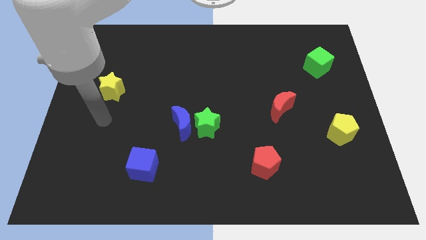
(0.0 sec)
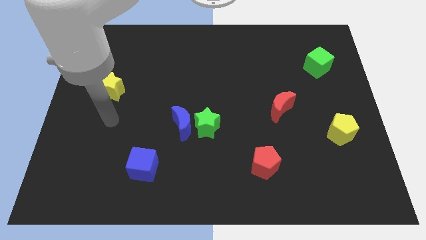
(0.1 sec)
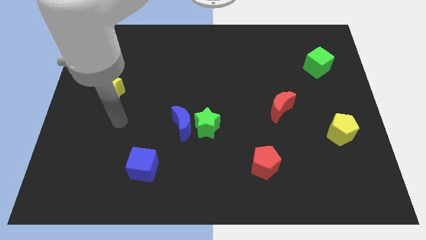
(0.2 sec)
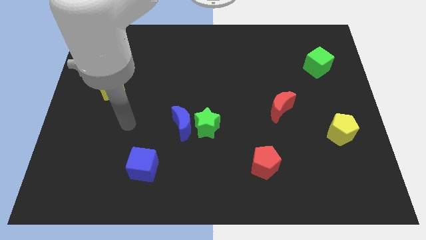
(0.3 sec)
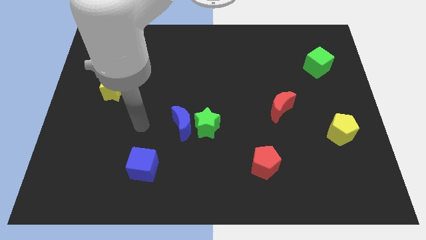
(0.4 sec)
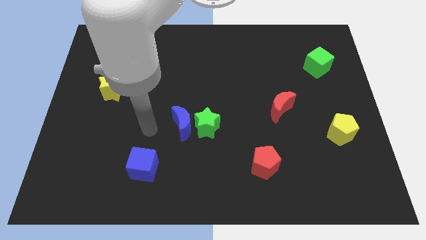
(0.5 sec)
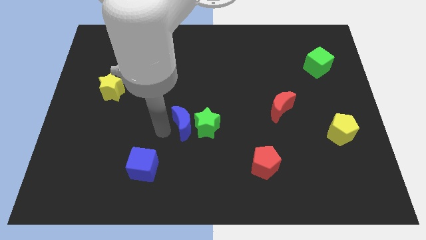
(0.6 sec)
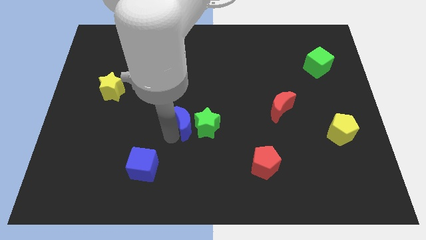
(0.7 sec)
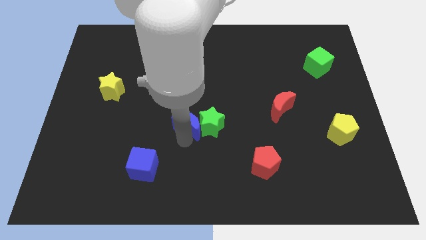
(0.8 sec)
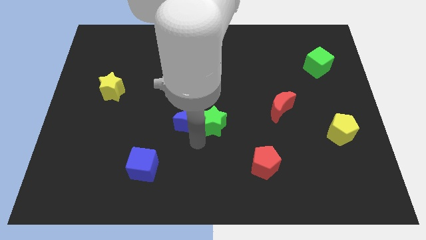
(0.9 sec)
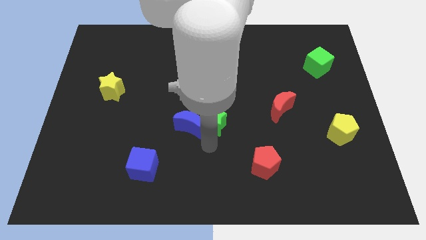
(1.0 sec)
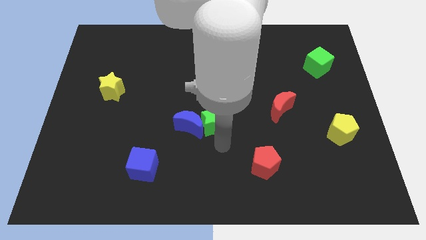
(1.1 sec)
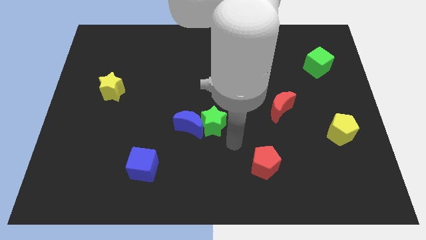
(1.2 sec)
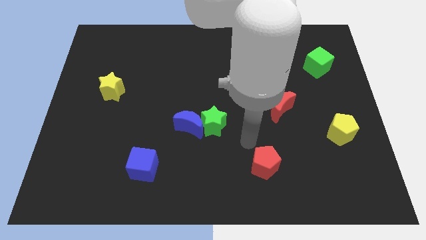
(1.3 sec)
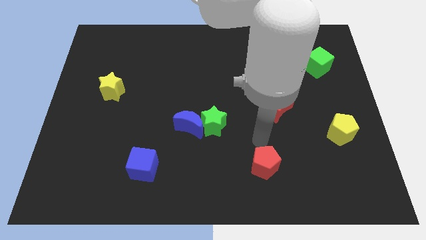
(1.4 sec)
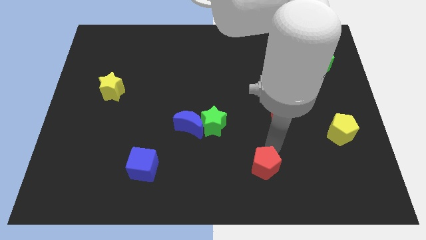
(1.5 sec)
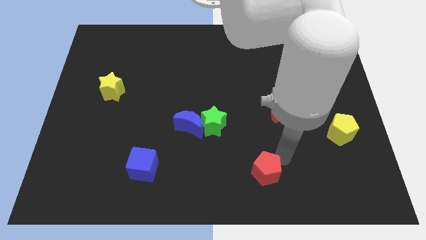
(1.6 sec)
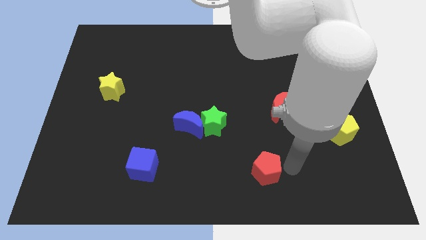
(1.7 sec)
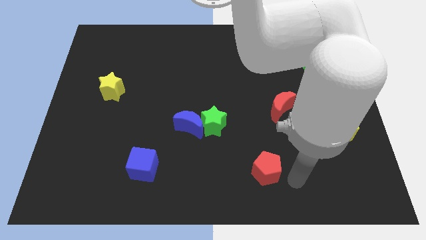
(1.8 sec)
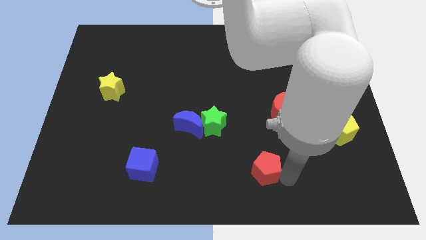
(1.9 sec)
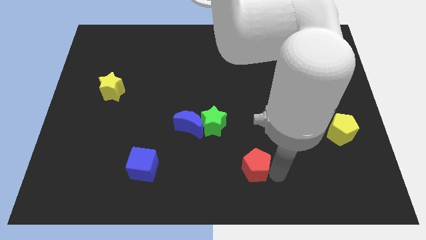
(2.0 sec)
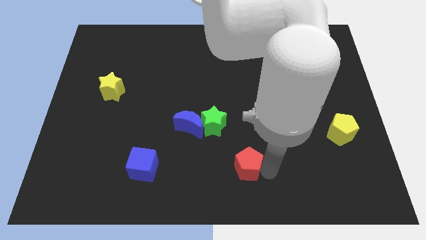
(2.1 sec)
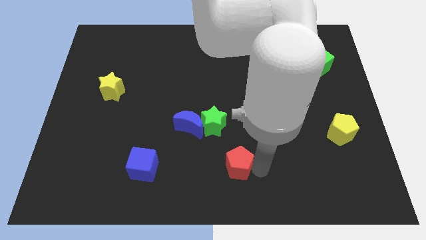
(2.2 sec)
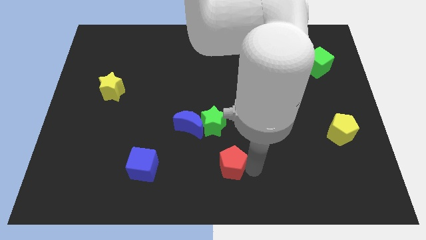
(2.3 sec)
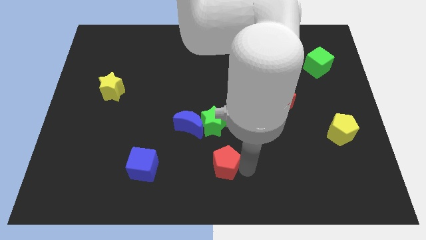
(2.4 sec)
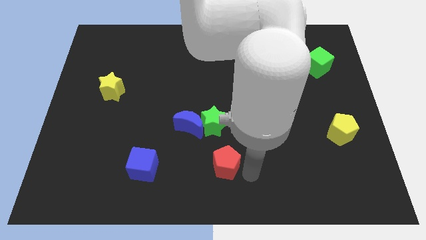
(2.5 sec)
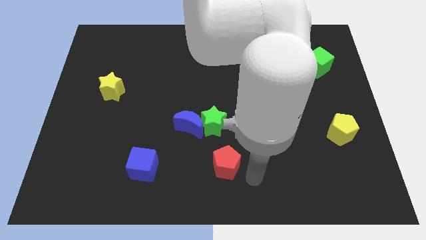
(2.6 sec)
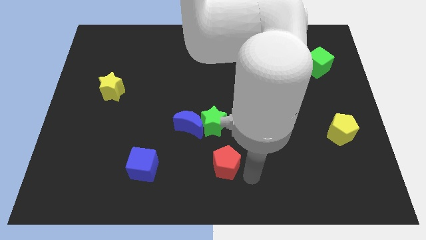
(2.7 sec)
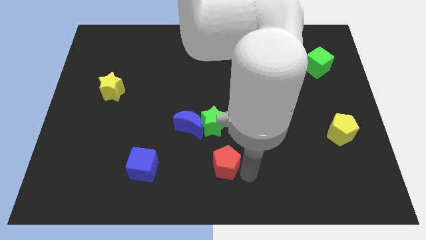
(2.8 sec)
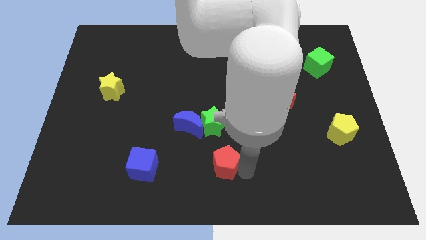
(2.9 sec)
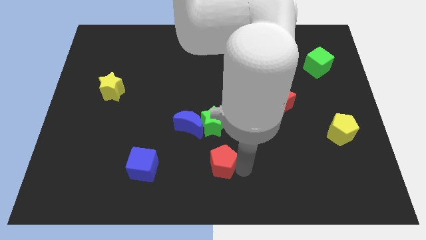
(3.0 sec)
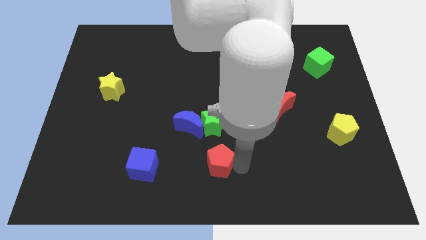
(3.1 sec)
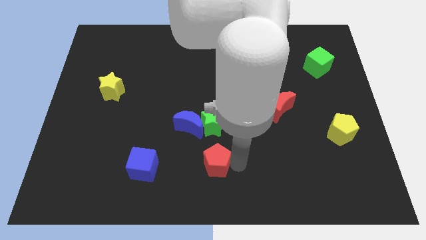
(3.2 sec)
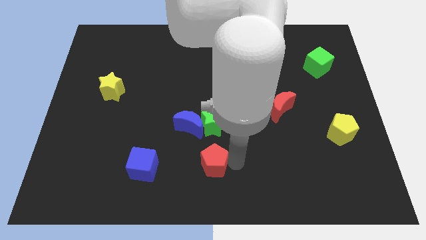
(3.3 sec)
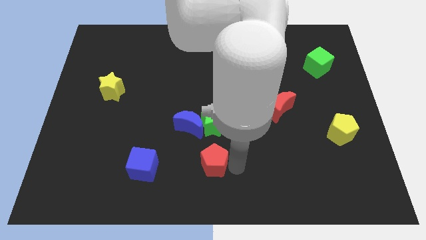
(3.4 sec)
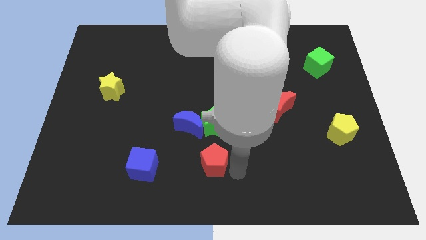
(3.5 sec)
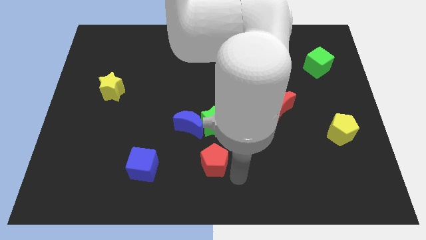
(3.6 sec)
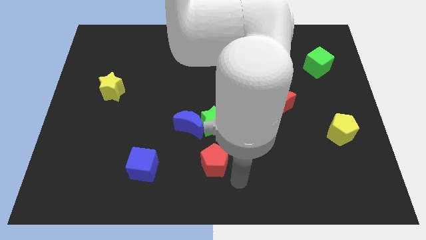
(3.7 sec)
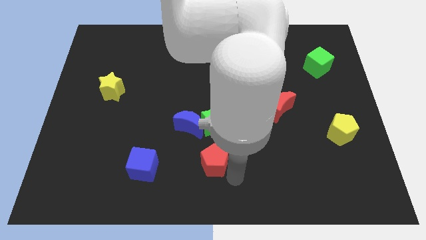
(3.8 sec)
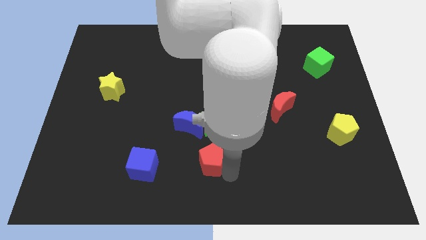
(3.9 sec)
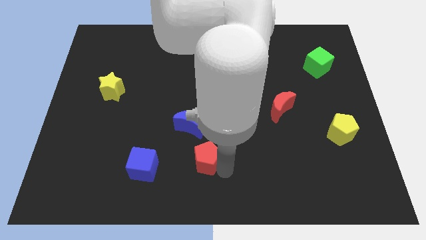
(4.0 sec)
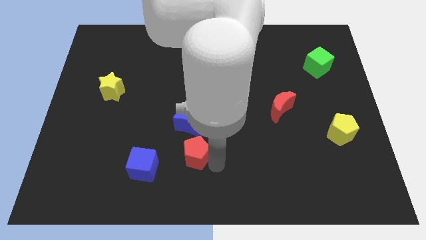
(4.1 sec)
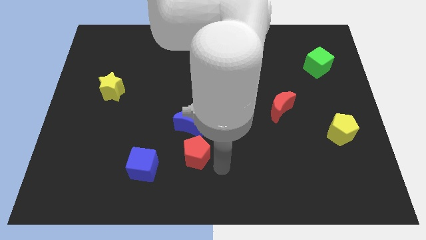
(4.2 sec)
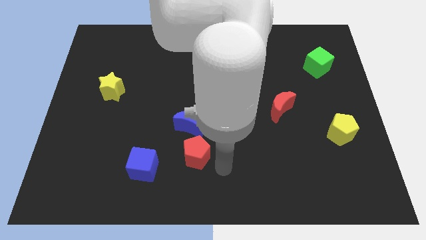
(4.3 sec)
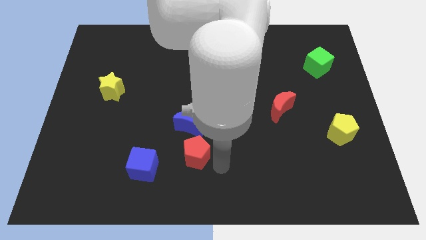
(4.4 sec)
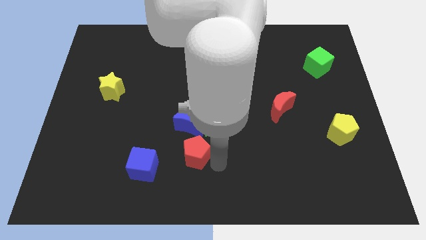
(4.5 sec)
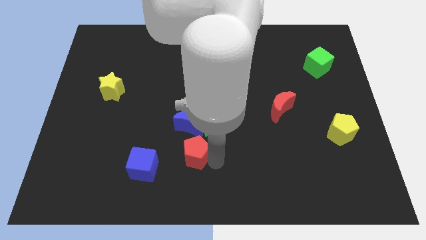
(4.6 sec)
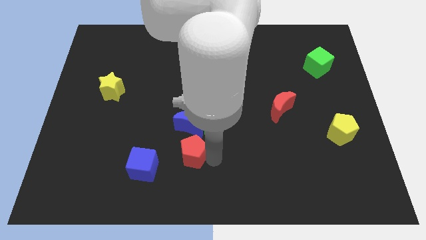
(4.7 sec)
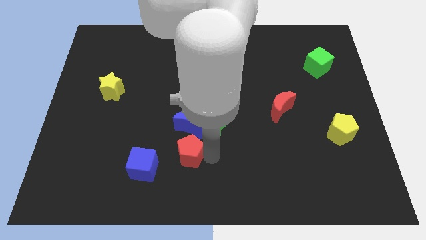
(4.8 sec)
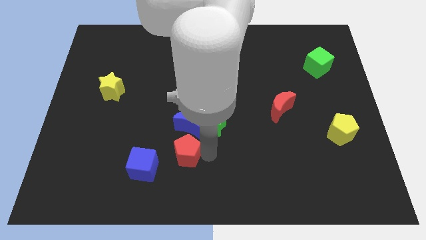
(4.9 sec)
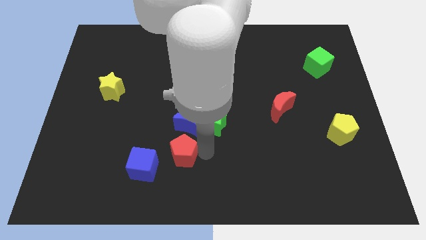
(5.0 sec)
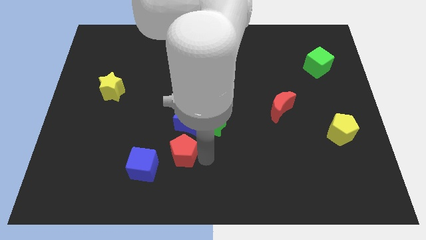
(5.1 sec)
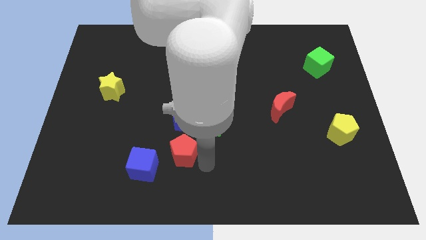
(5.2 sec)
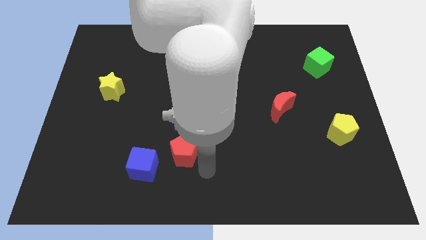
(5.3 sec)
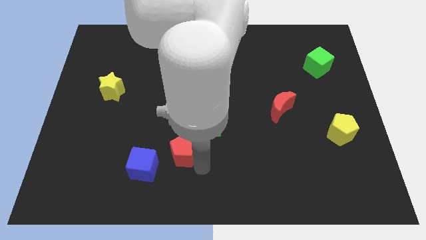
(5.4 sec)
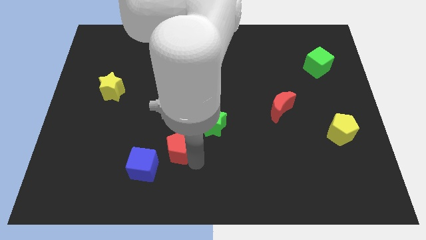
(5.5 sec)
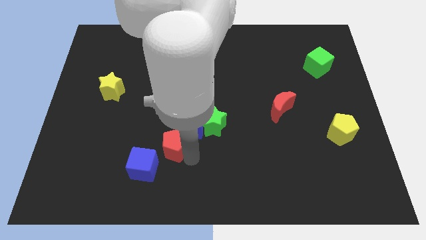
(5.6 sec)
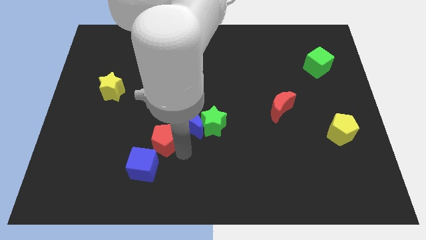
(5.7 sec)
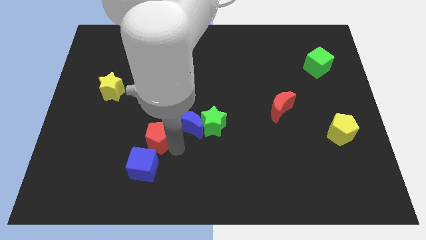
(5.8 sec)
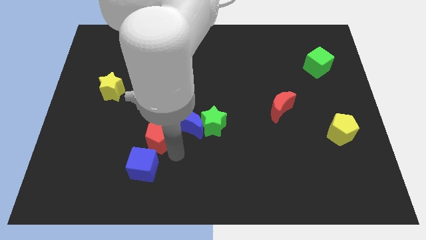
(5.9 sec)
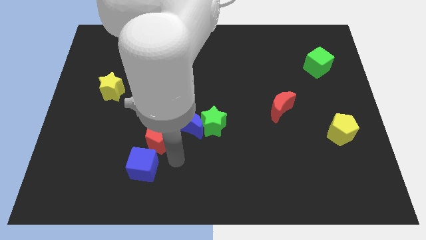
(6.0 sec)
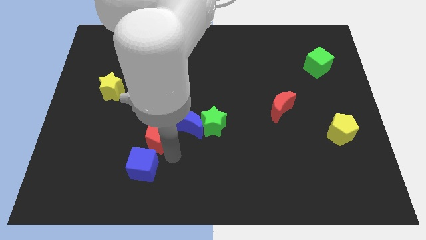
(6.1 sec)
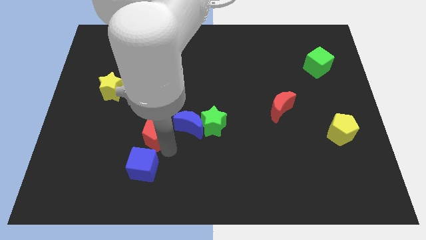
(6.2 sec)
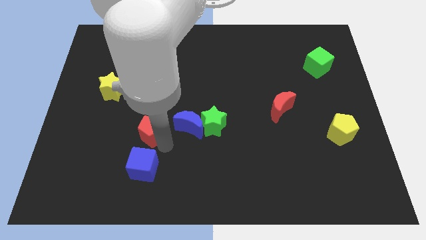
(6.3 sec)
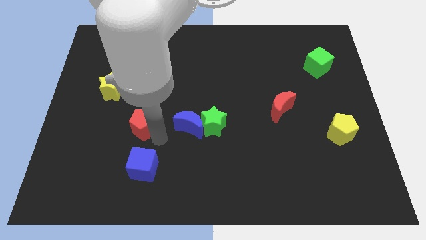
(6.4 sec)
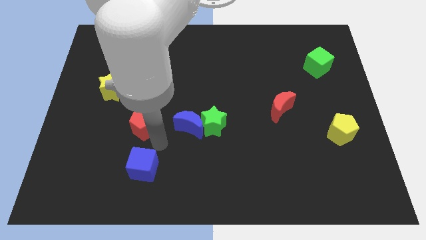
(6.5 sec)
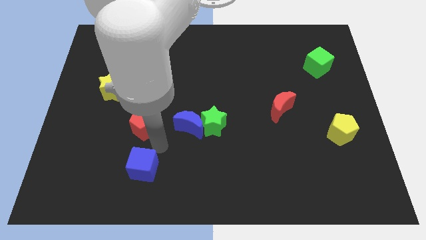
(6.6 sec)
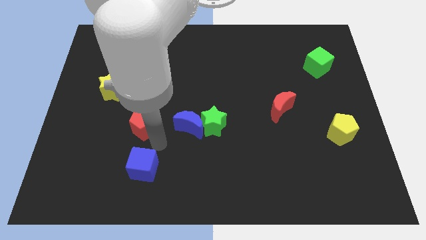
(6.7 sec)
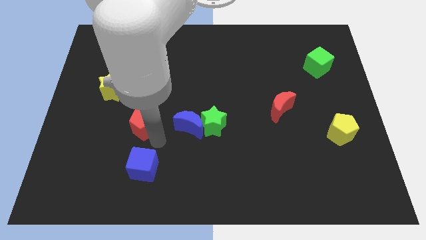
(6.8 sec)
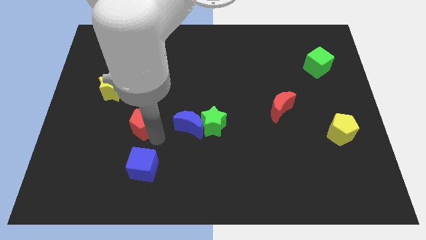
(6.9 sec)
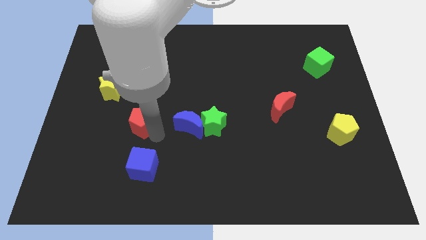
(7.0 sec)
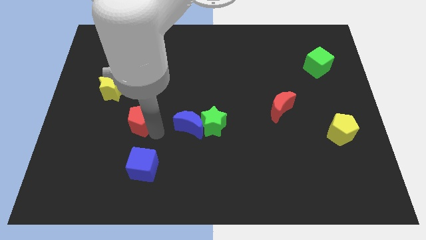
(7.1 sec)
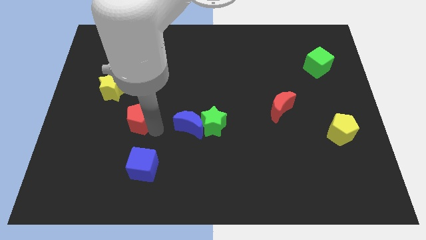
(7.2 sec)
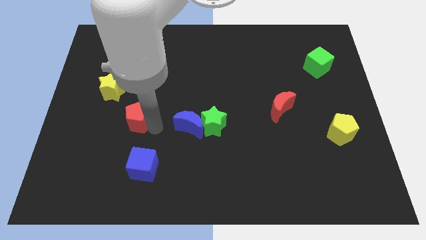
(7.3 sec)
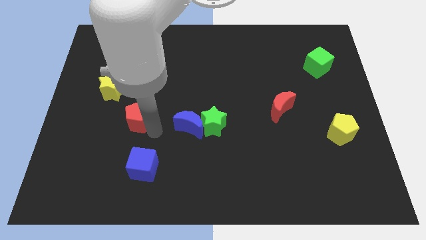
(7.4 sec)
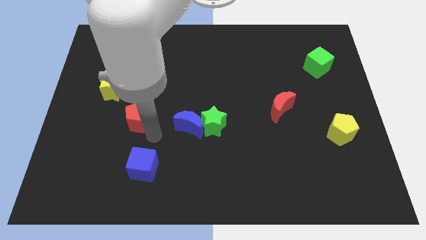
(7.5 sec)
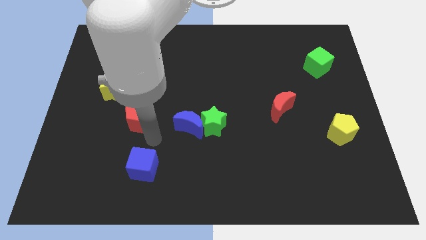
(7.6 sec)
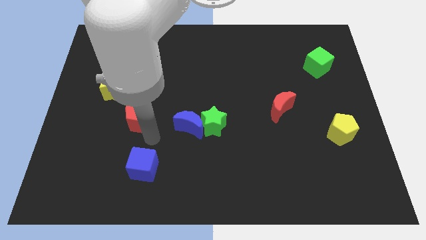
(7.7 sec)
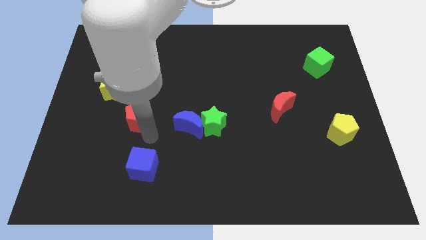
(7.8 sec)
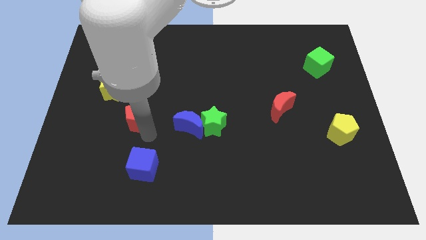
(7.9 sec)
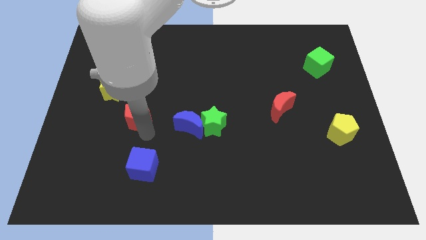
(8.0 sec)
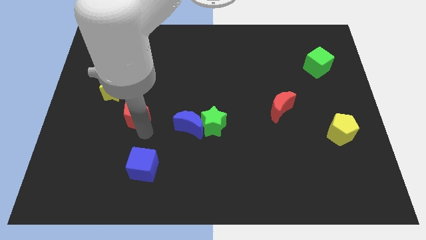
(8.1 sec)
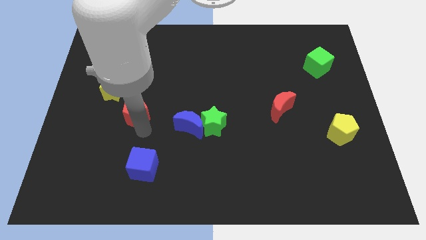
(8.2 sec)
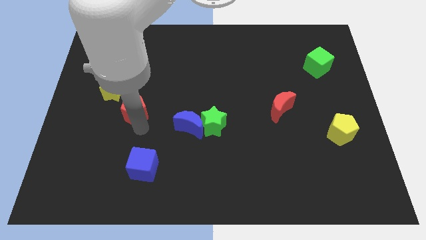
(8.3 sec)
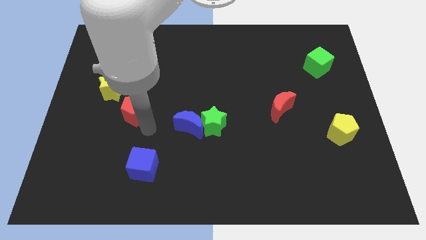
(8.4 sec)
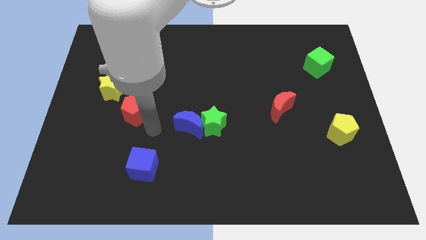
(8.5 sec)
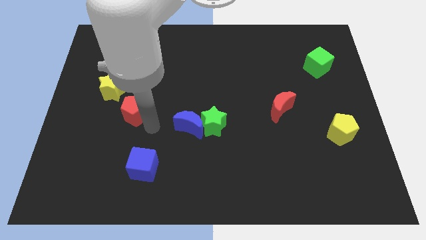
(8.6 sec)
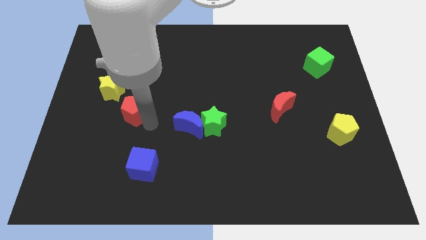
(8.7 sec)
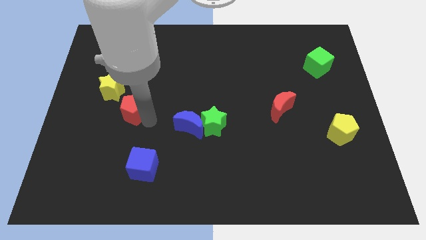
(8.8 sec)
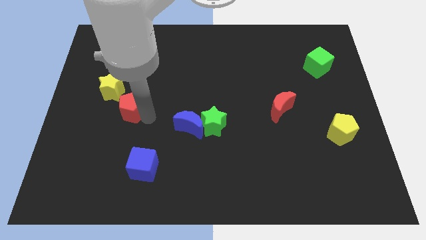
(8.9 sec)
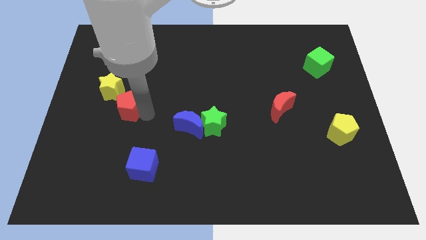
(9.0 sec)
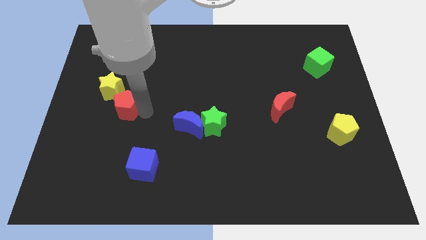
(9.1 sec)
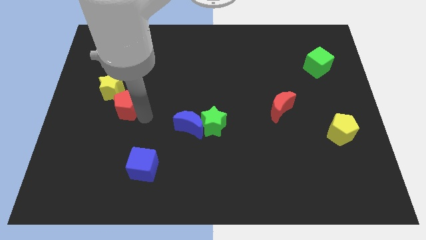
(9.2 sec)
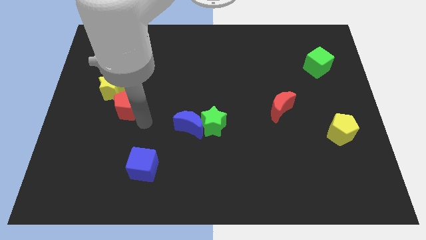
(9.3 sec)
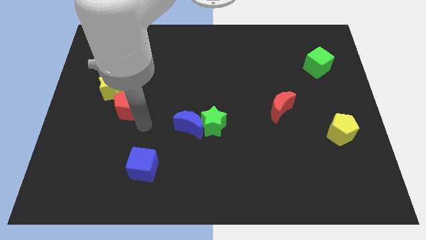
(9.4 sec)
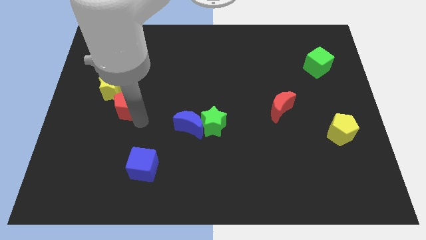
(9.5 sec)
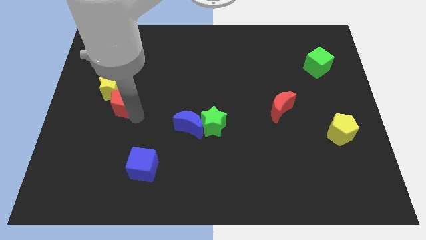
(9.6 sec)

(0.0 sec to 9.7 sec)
put the red pentagon next to the yellow star
